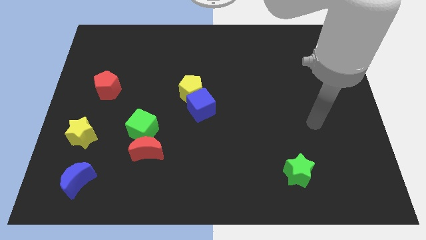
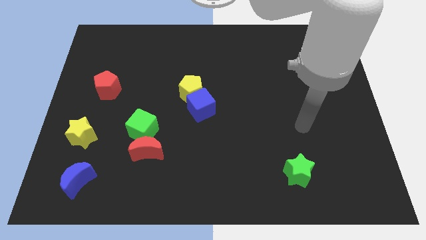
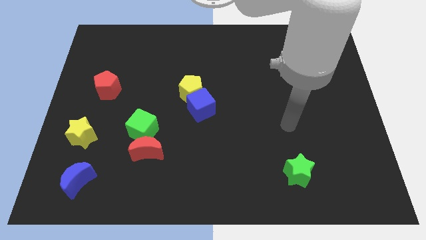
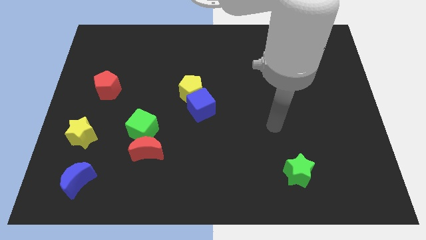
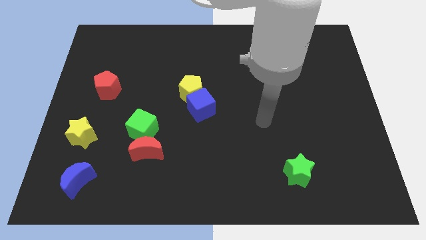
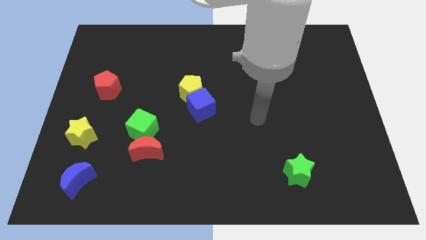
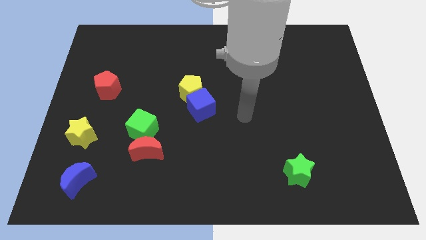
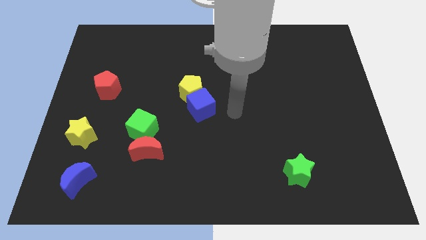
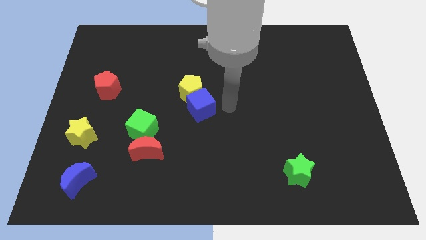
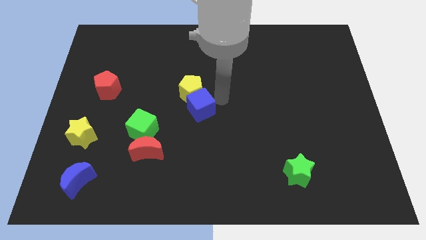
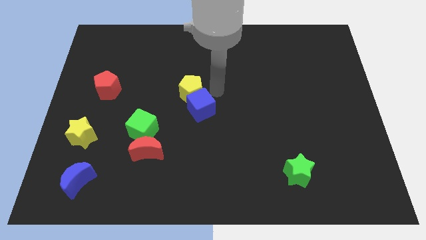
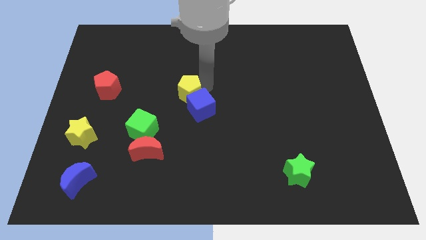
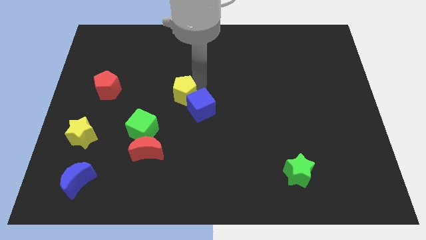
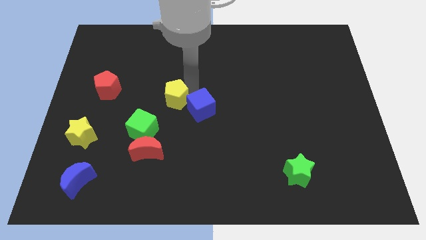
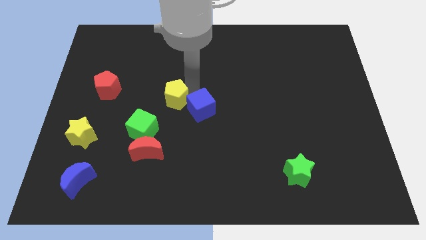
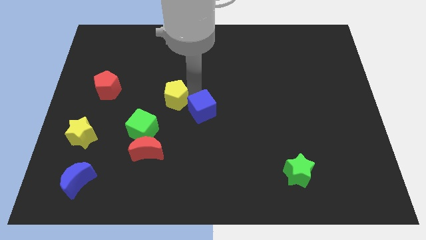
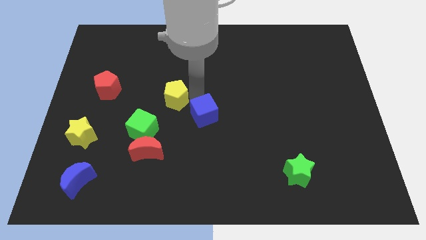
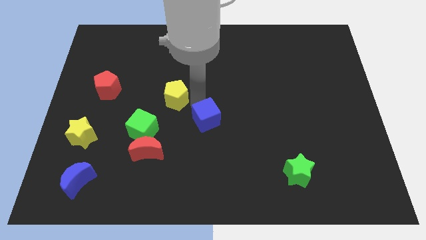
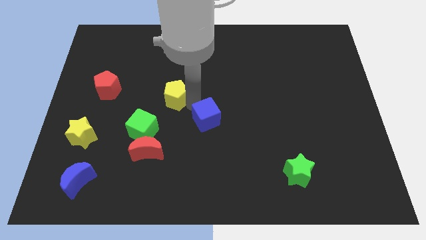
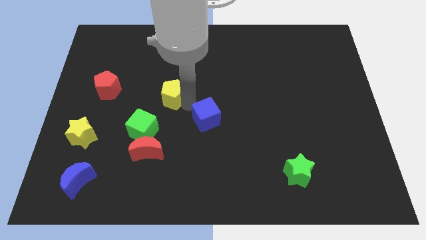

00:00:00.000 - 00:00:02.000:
pull the blue cube apart from the yellow pentagon

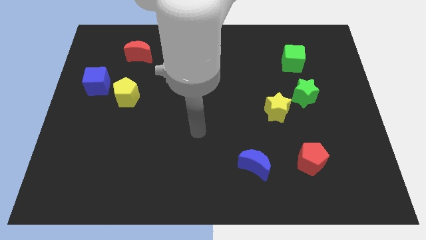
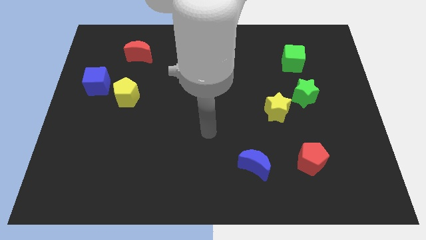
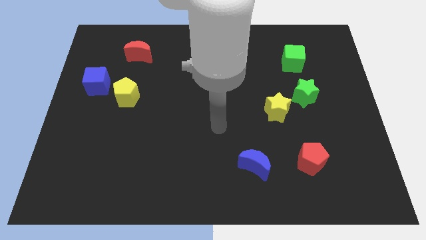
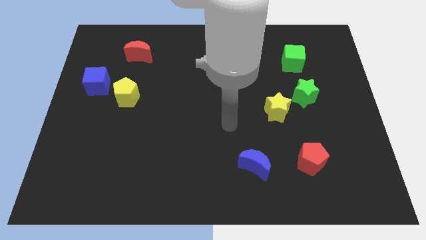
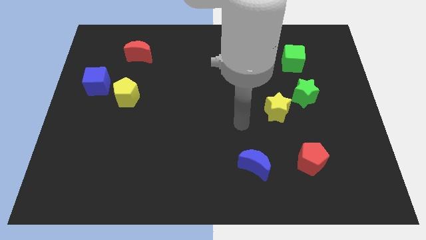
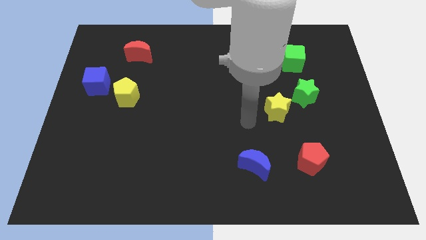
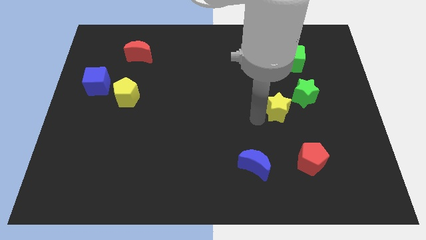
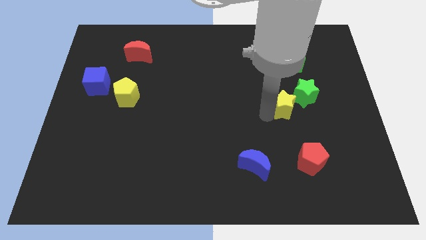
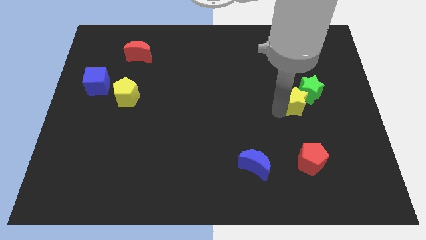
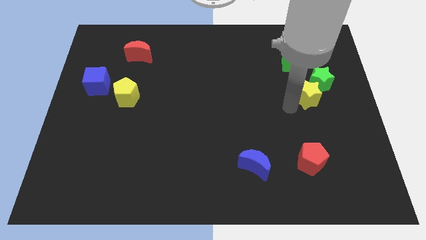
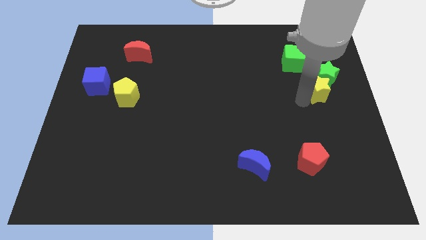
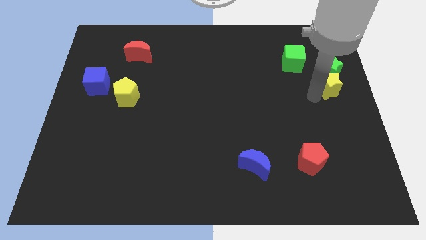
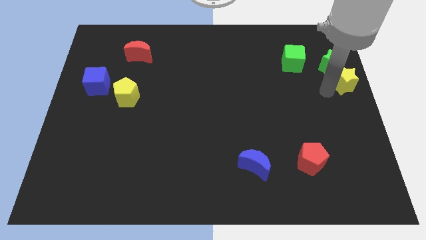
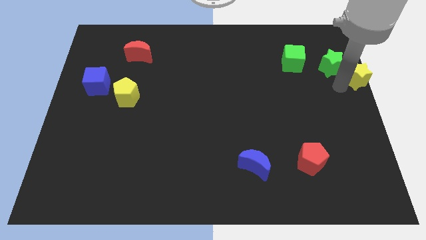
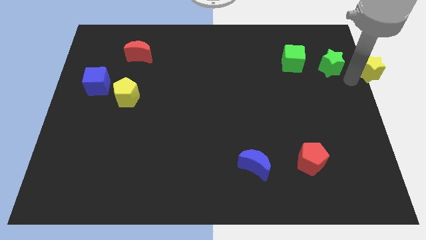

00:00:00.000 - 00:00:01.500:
move the green star away from the yellow star

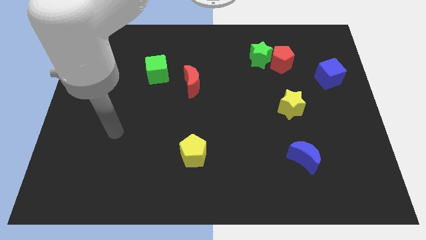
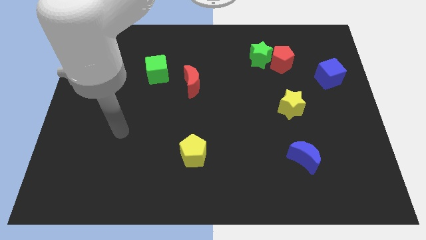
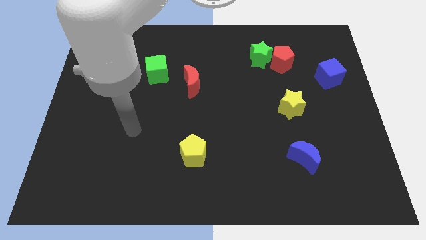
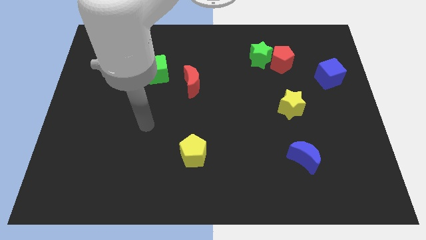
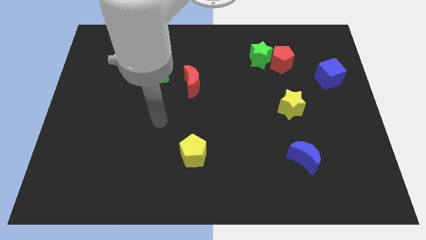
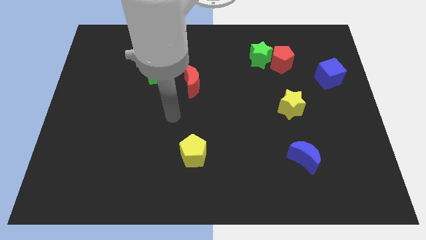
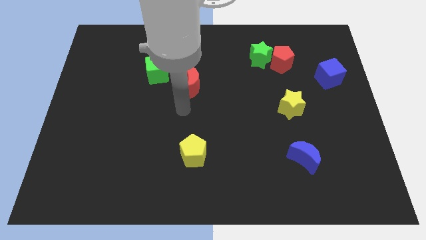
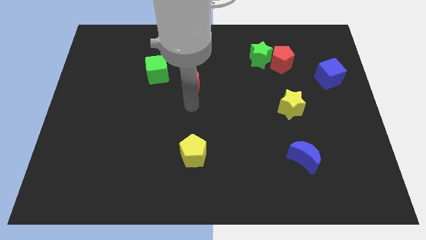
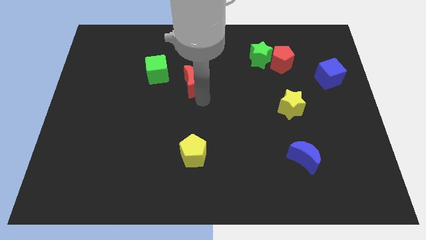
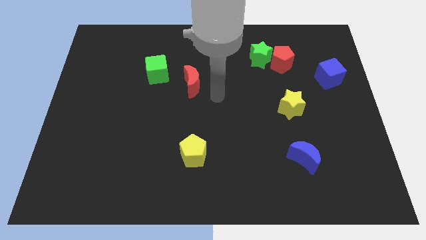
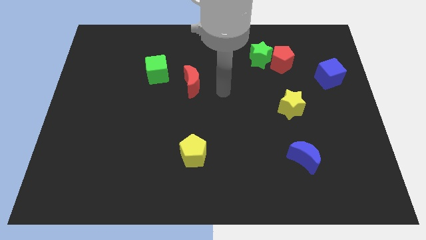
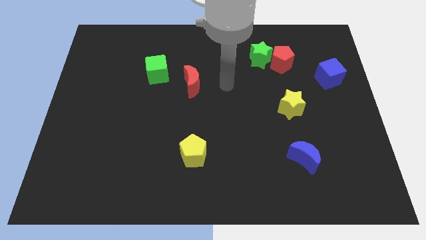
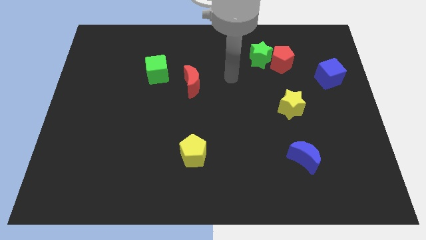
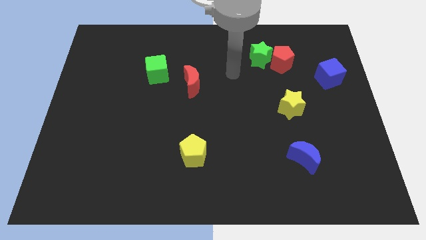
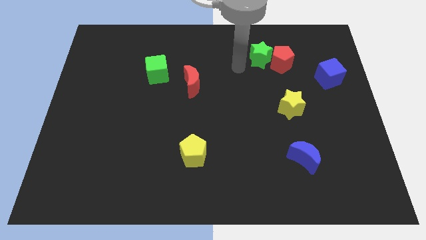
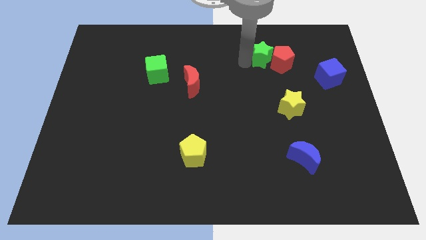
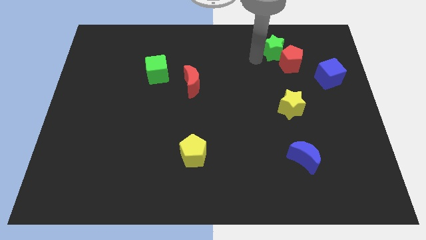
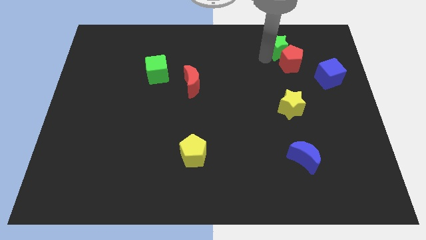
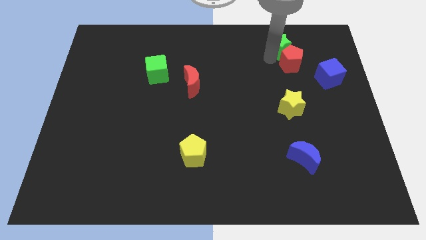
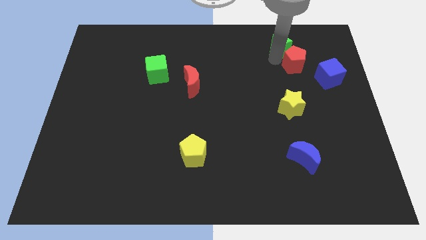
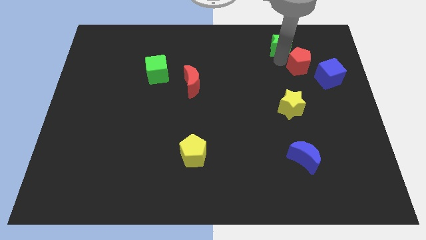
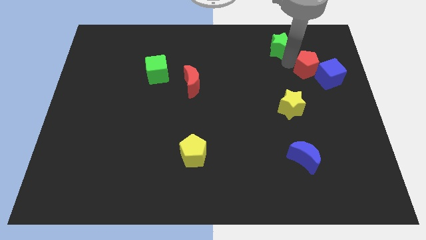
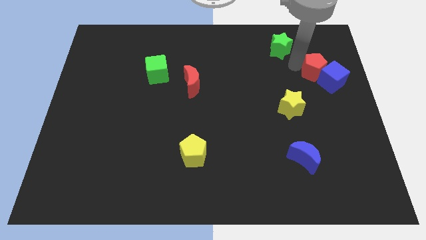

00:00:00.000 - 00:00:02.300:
move the red pentagon away from the green star

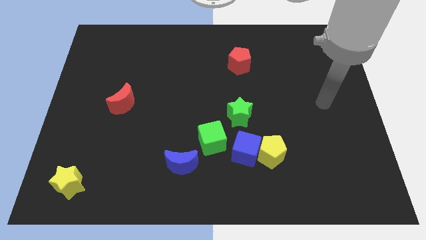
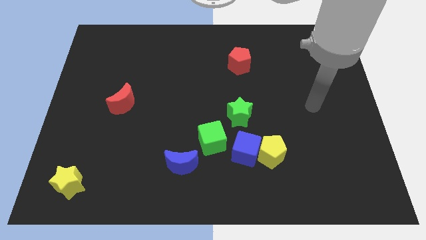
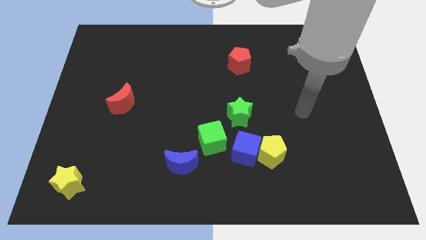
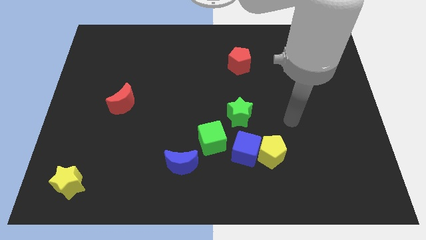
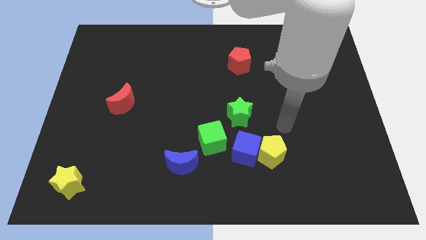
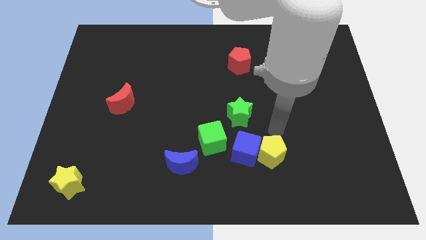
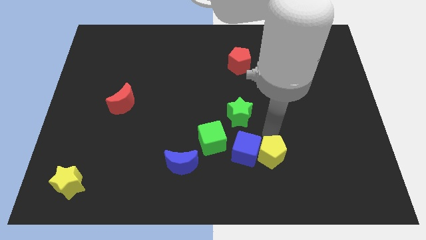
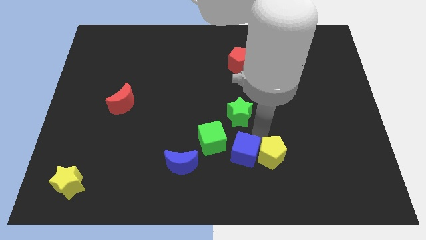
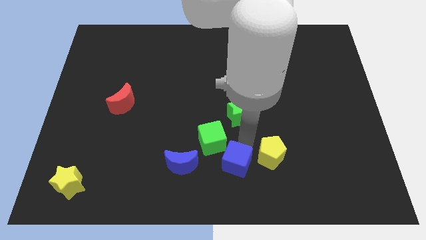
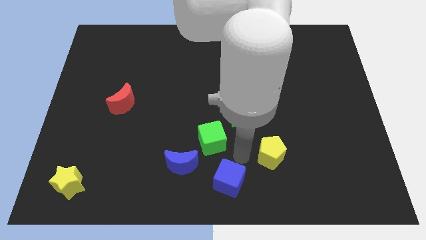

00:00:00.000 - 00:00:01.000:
separate the yellow pentagon from the blue cube

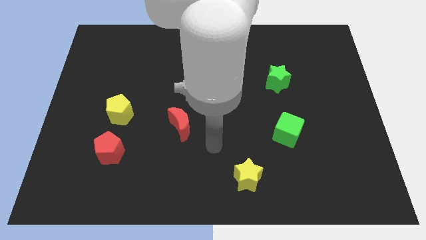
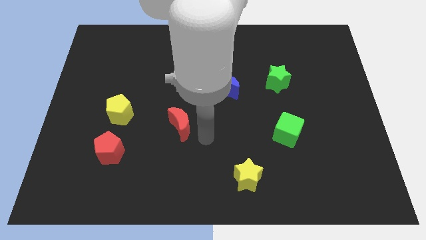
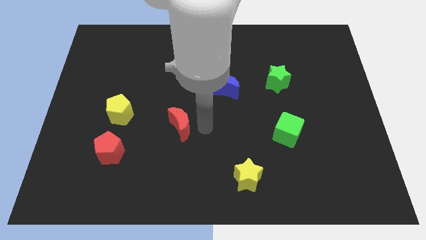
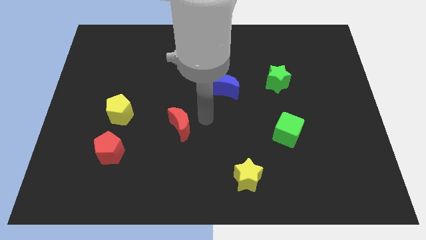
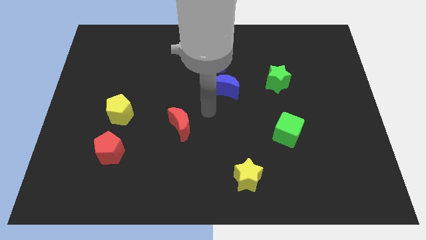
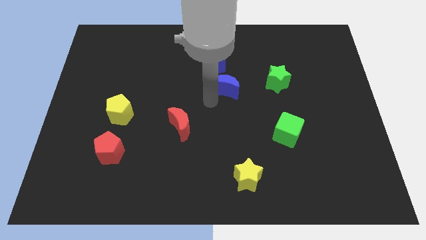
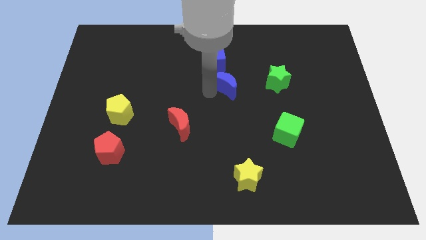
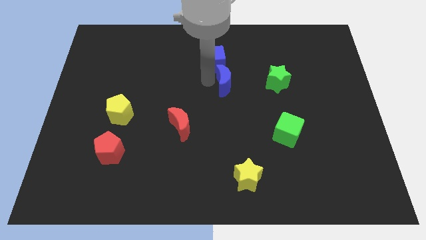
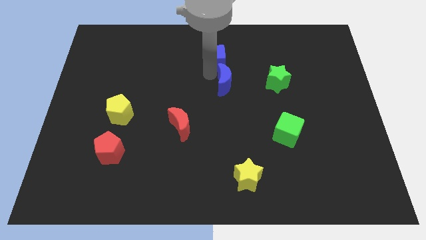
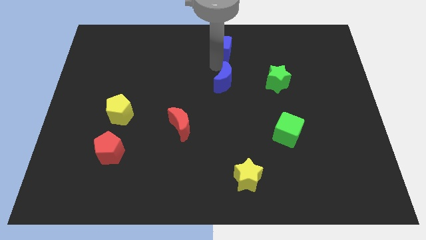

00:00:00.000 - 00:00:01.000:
pull the blue moon apart from the blue cube

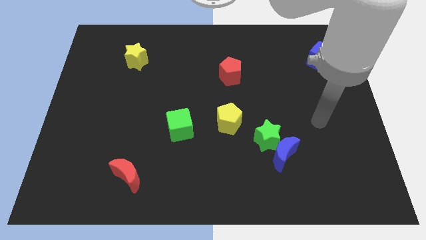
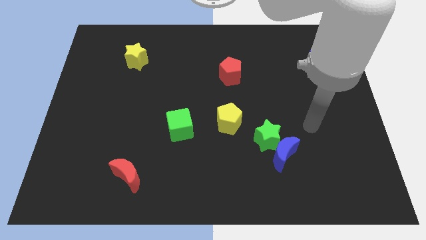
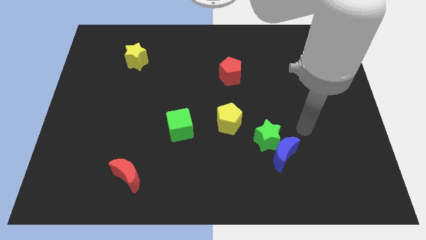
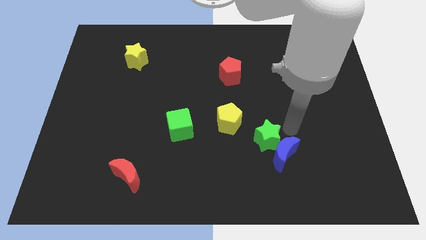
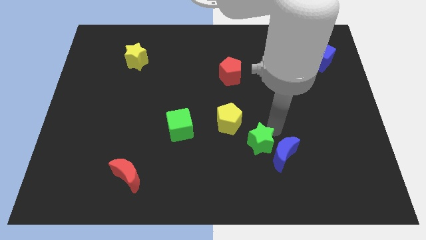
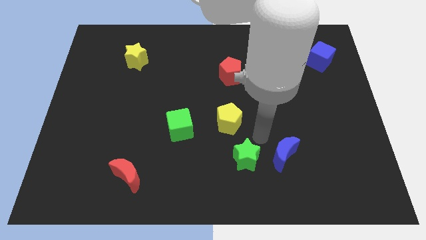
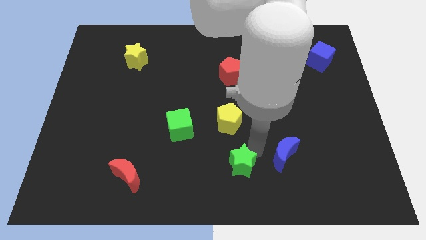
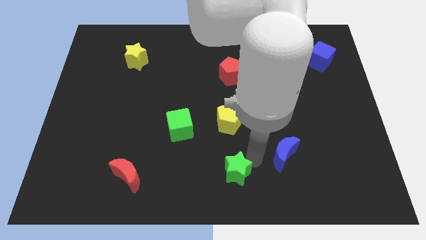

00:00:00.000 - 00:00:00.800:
pull the blue moon apart from the green star

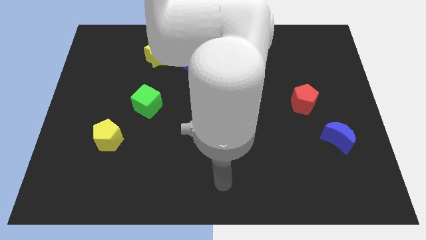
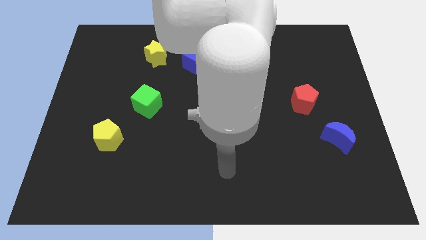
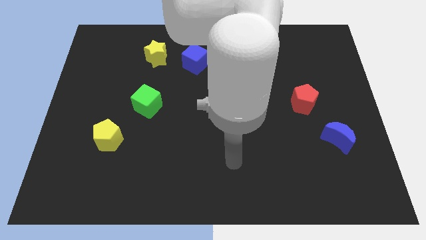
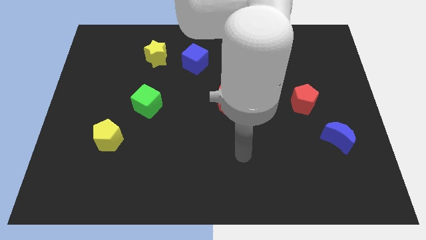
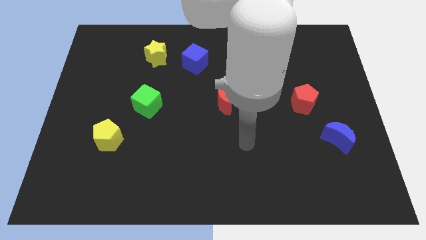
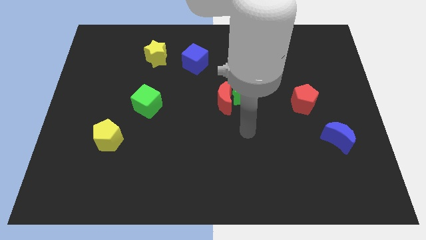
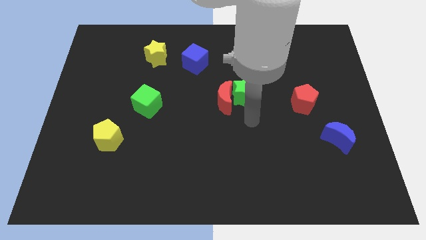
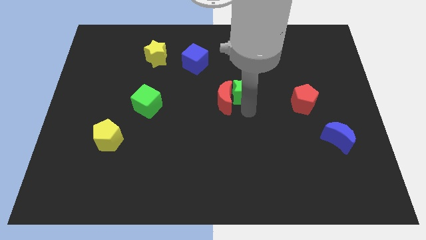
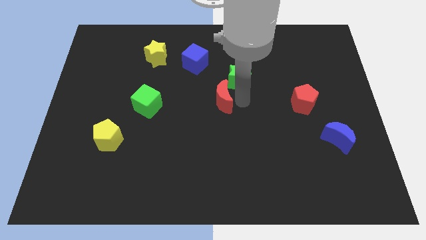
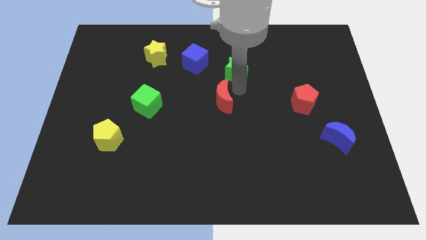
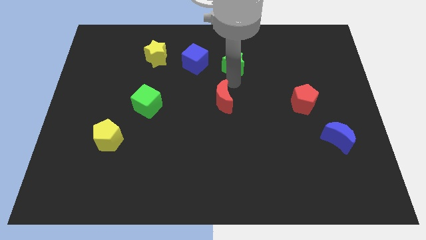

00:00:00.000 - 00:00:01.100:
pull the red moon apart from the green star
